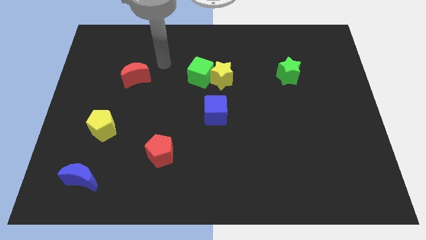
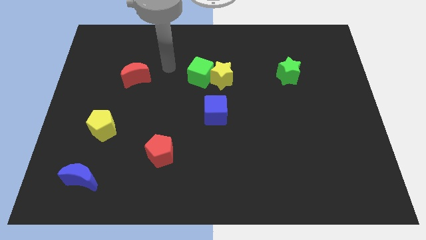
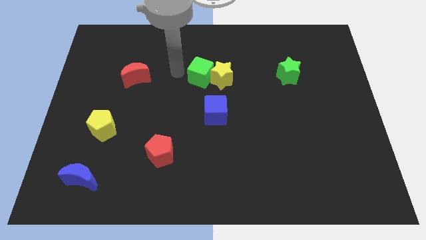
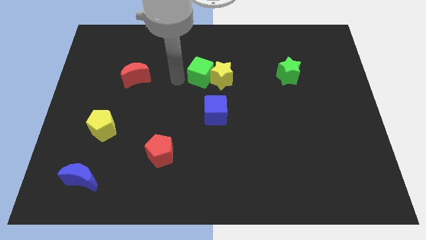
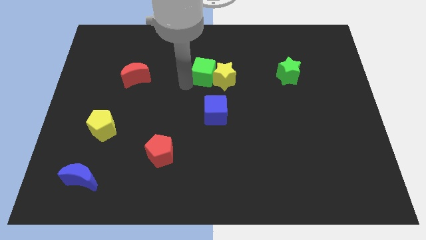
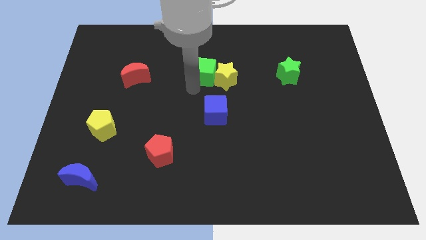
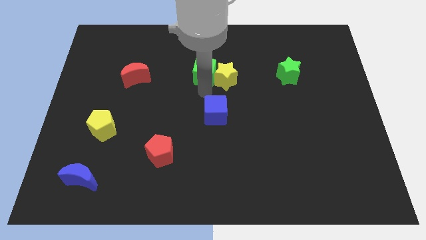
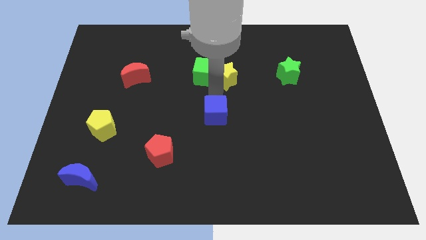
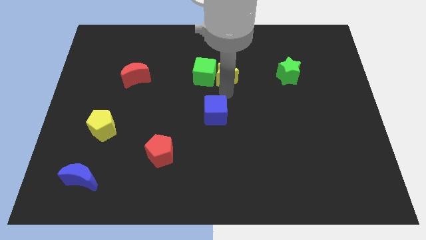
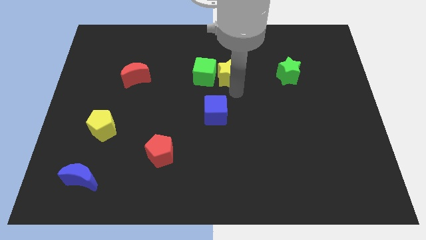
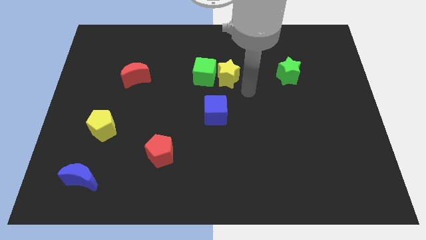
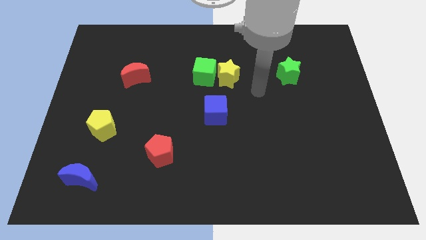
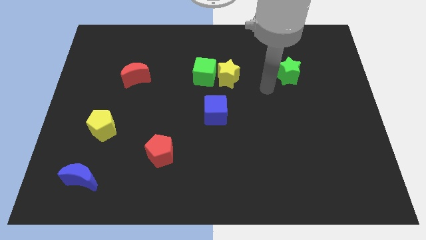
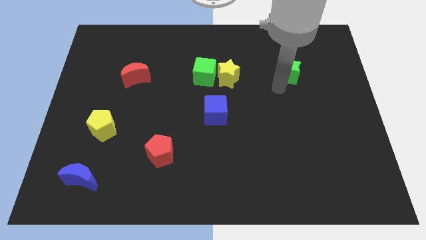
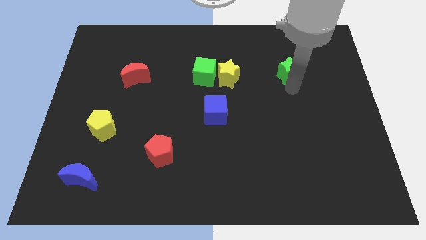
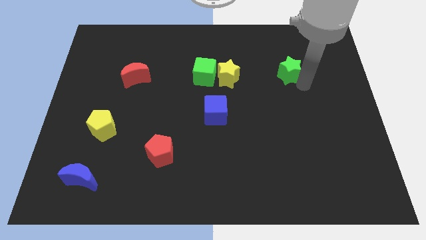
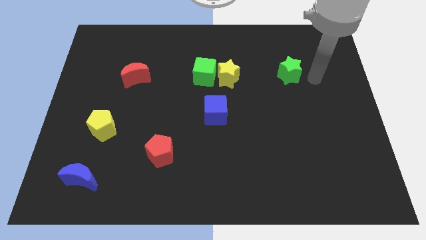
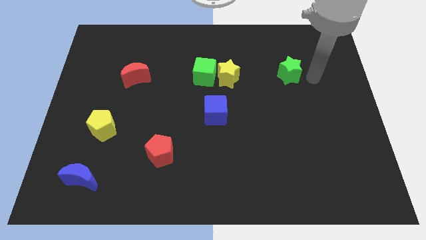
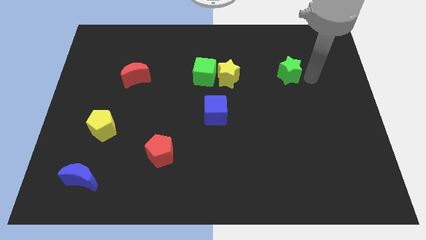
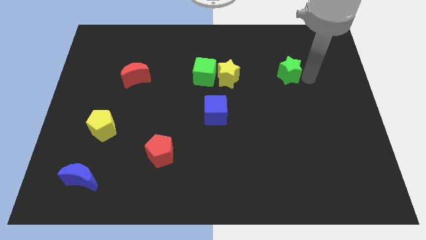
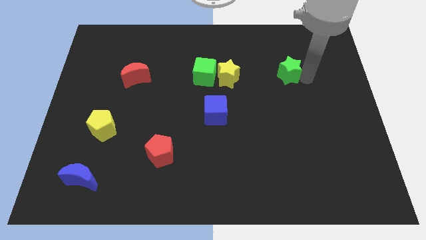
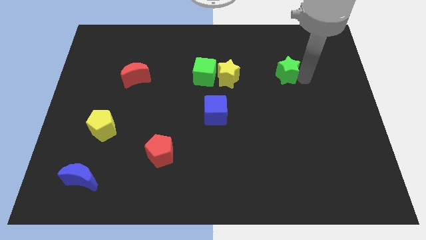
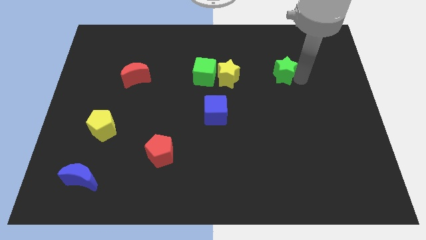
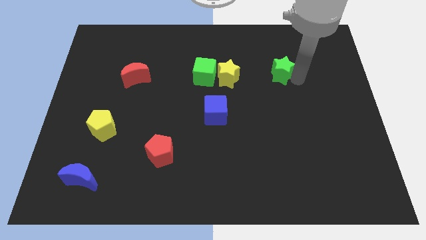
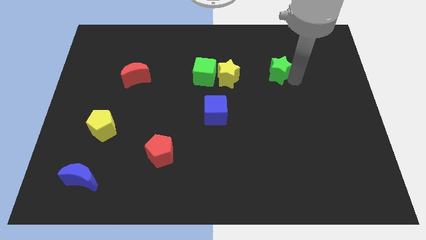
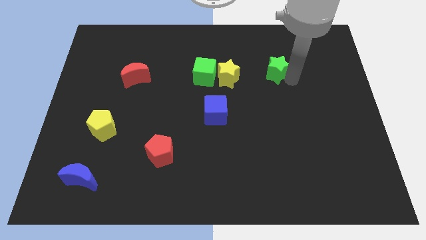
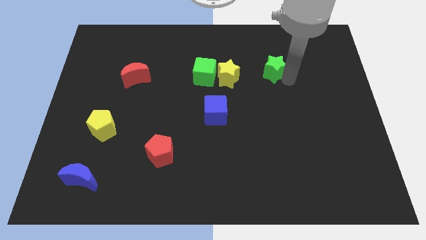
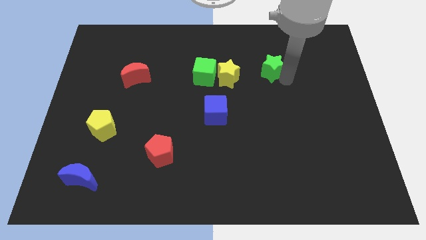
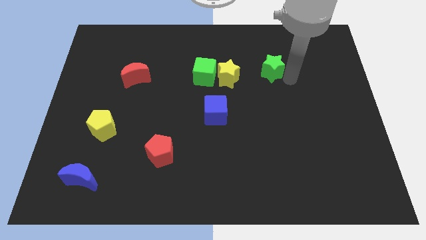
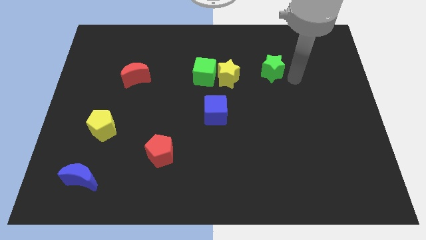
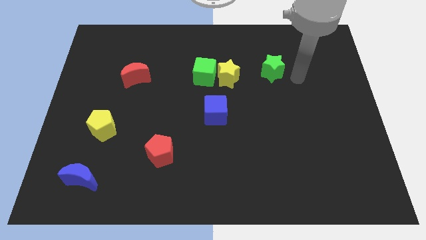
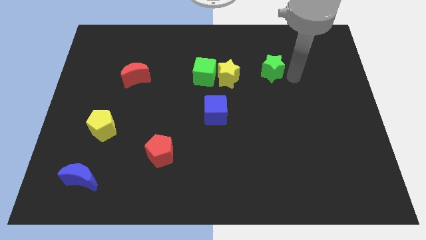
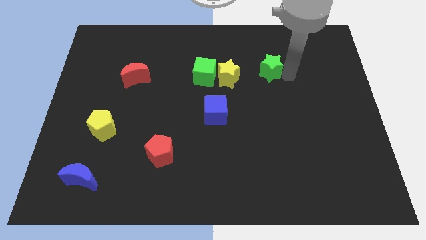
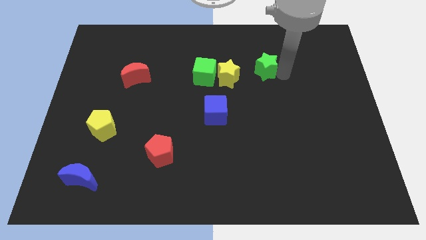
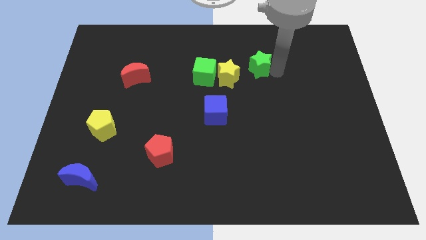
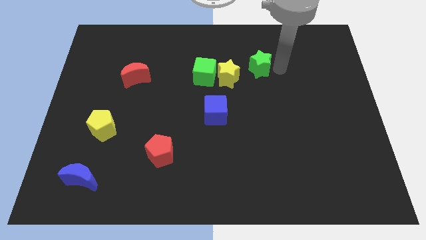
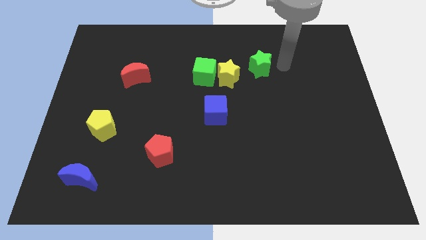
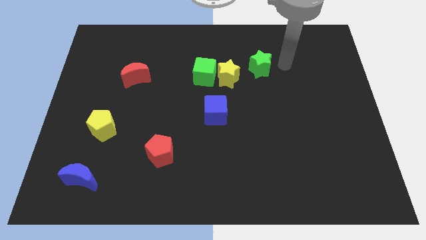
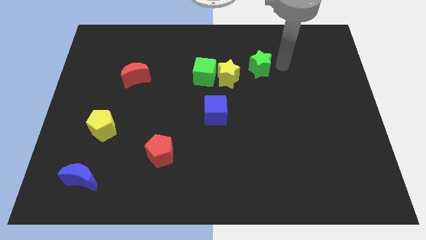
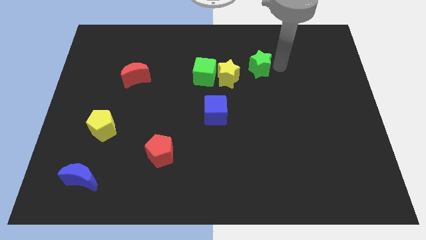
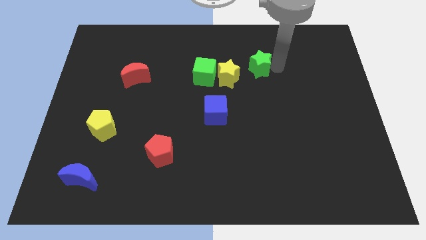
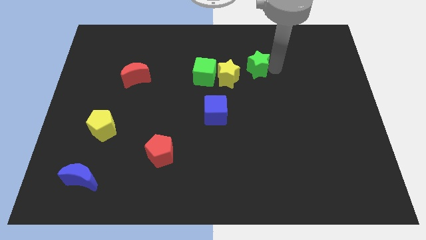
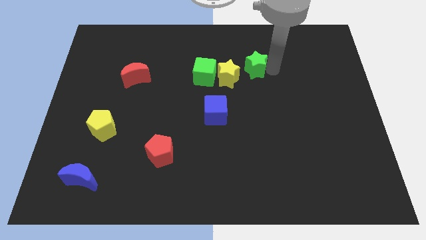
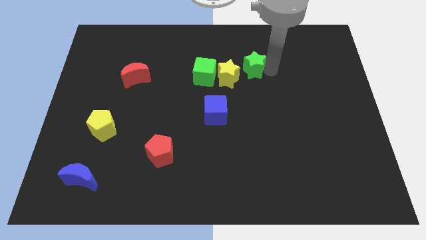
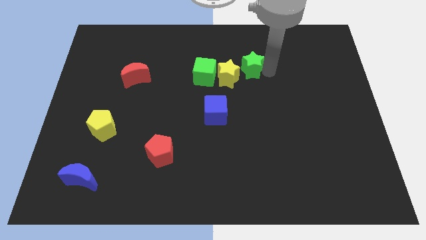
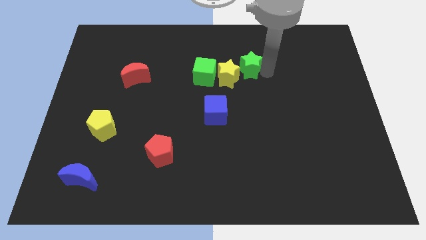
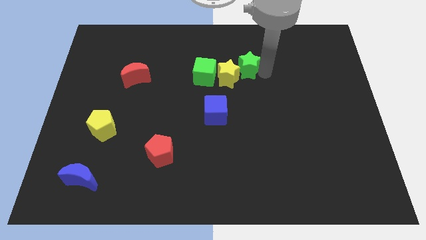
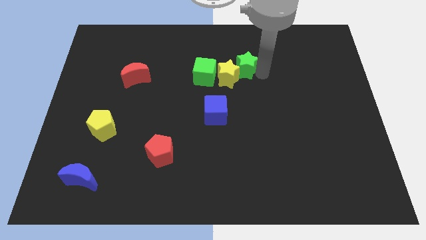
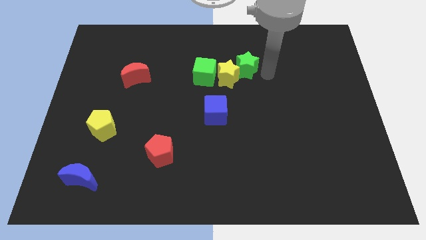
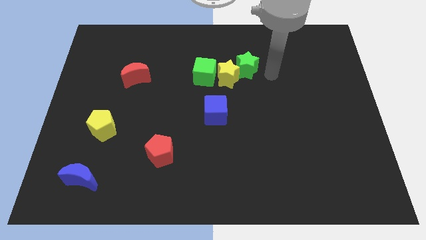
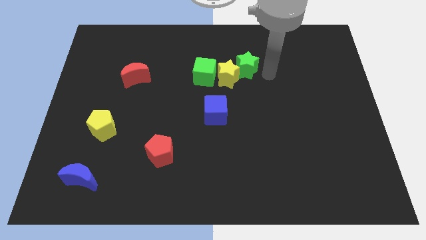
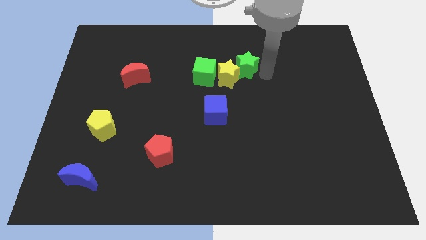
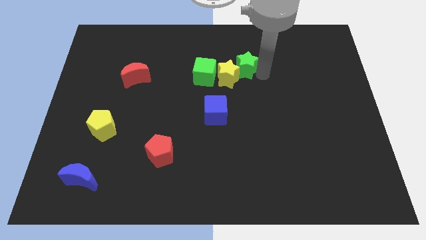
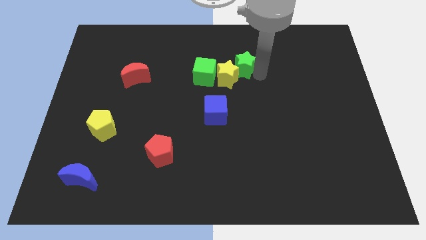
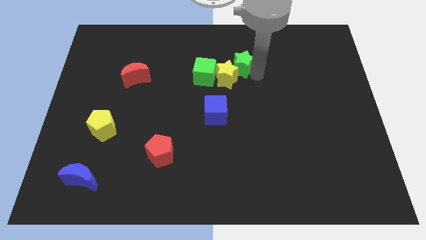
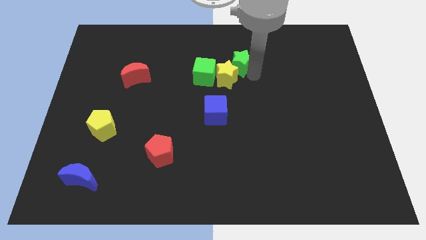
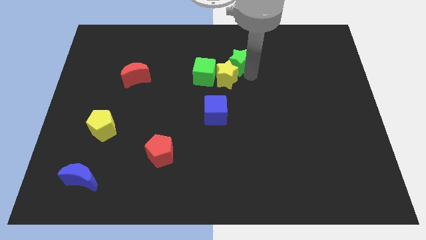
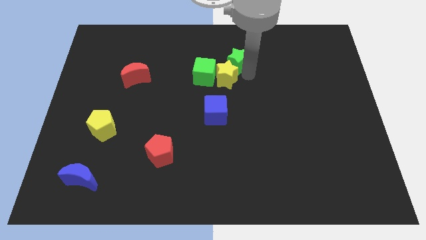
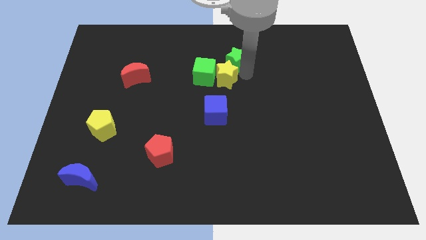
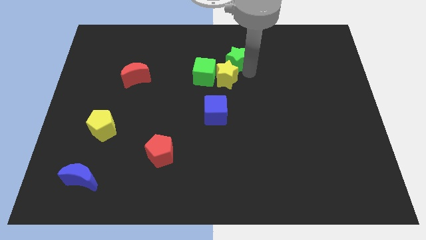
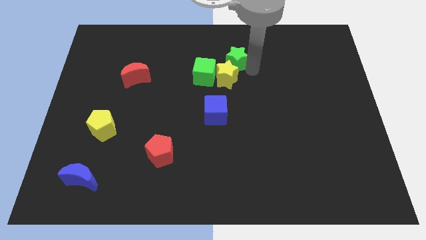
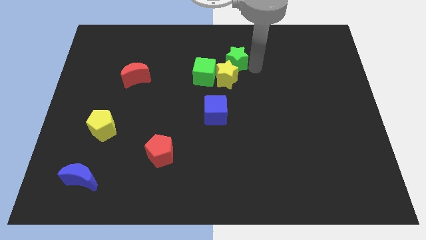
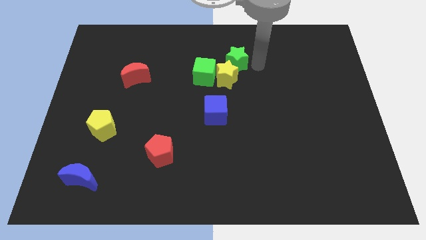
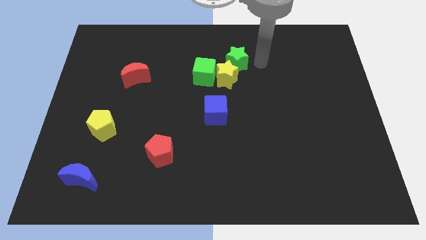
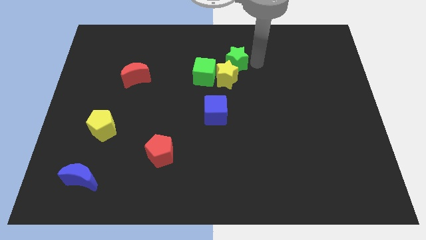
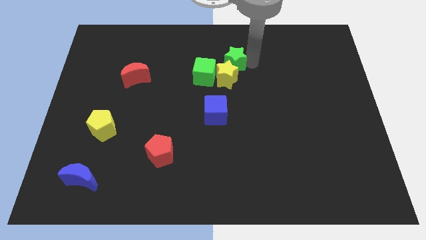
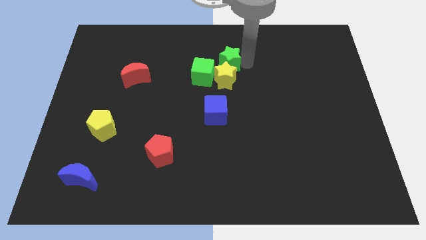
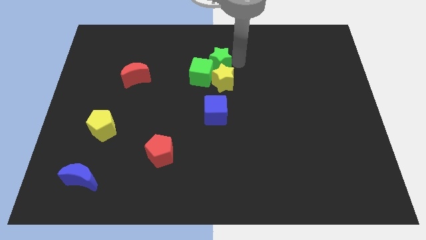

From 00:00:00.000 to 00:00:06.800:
slide the green star next to the green cube
